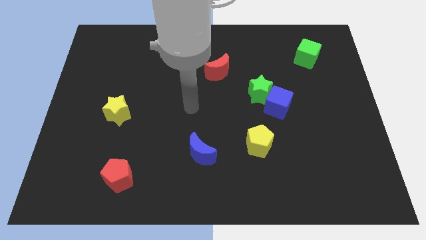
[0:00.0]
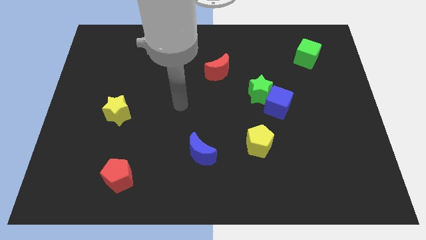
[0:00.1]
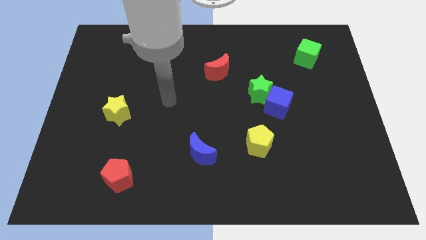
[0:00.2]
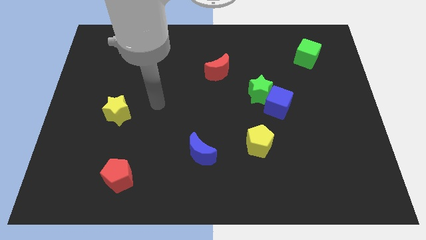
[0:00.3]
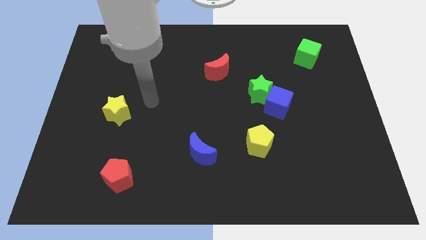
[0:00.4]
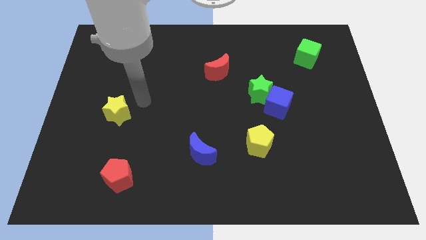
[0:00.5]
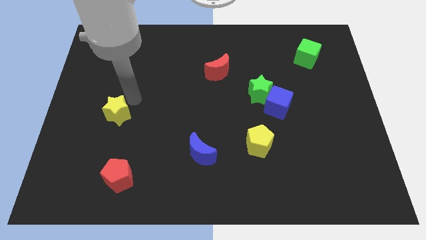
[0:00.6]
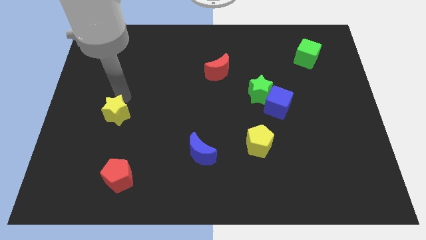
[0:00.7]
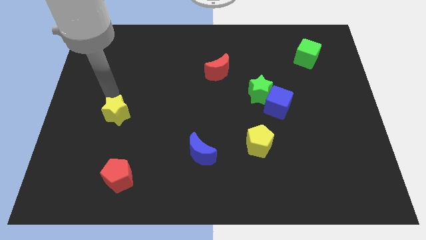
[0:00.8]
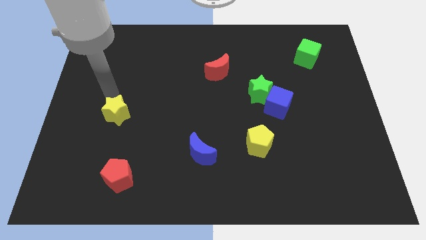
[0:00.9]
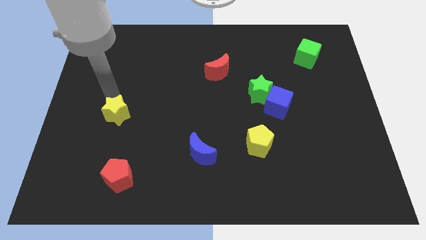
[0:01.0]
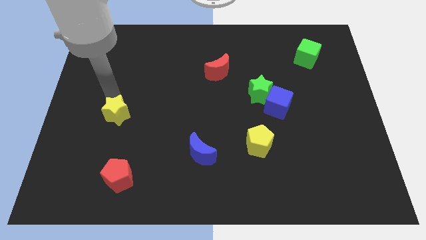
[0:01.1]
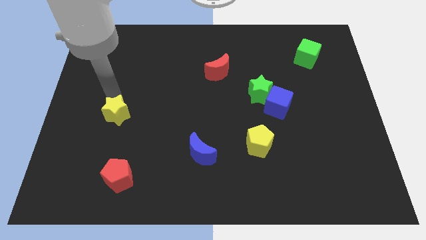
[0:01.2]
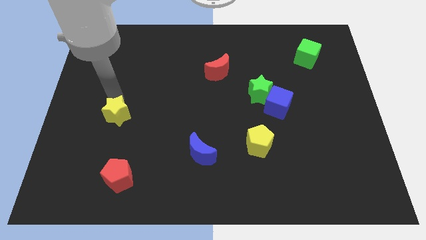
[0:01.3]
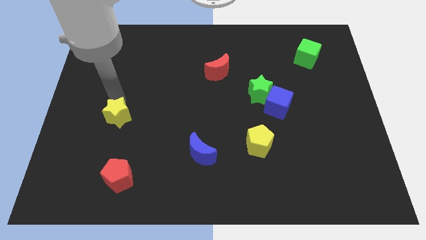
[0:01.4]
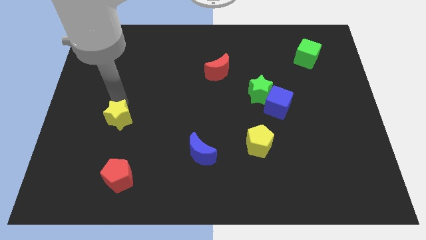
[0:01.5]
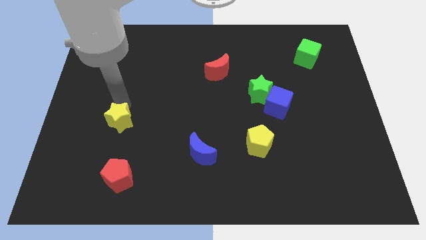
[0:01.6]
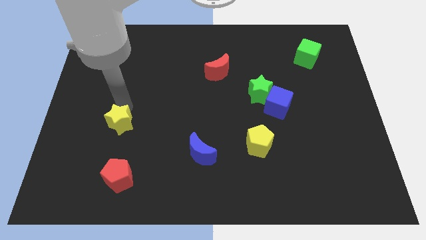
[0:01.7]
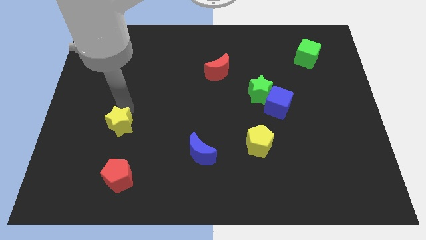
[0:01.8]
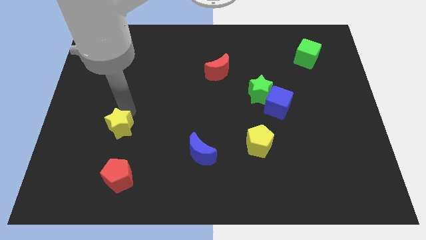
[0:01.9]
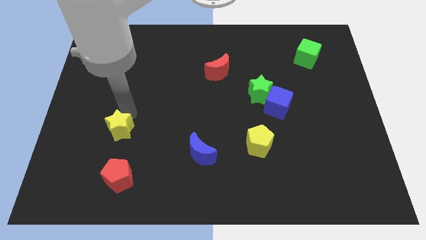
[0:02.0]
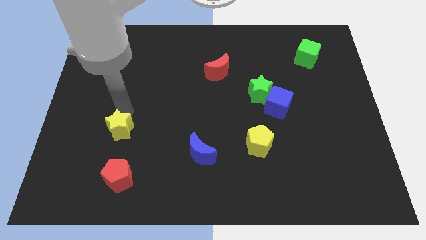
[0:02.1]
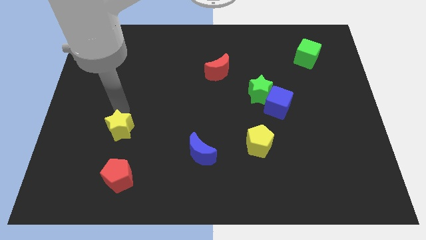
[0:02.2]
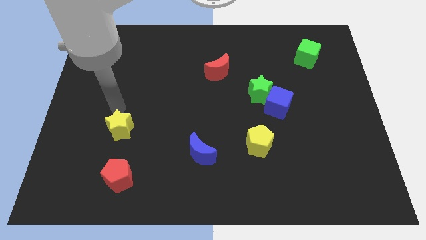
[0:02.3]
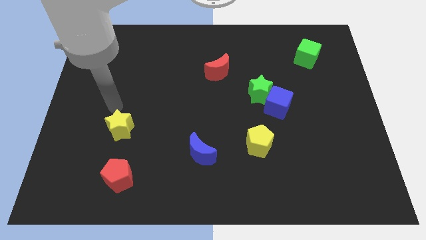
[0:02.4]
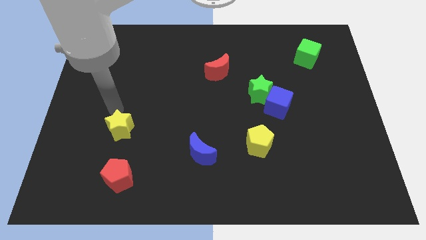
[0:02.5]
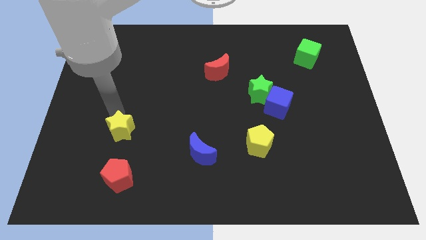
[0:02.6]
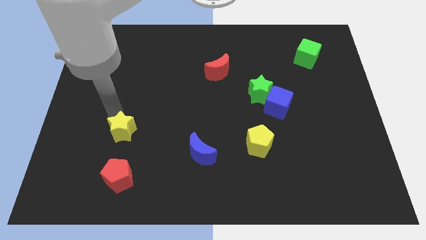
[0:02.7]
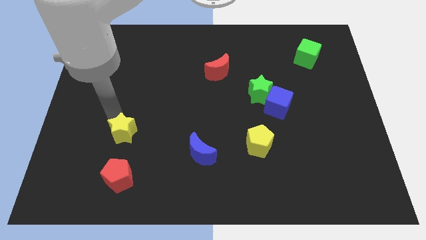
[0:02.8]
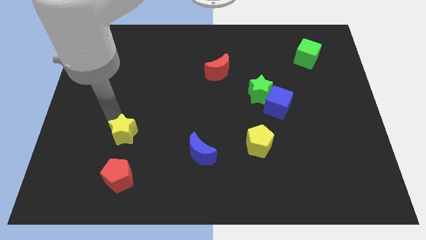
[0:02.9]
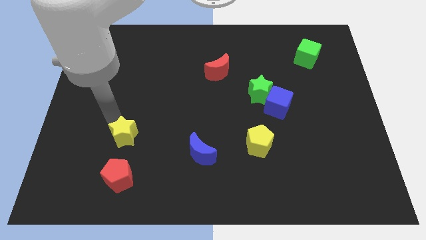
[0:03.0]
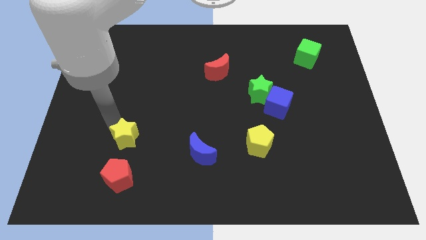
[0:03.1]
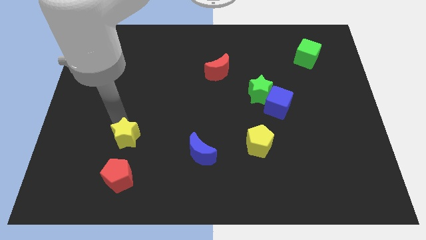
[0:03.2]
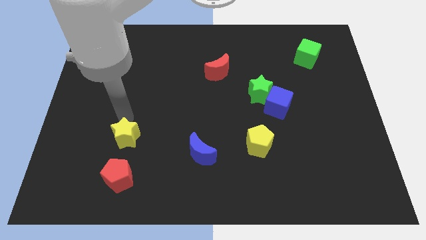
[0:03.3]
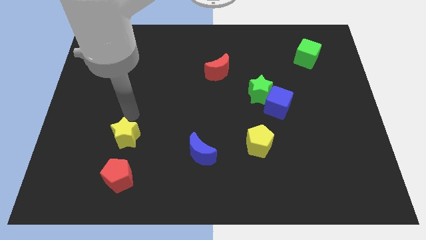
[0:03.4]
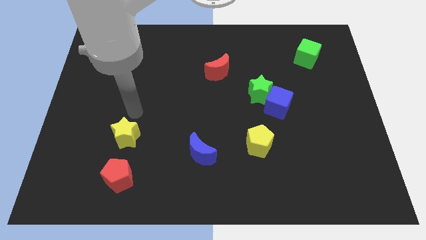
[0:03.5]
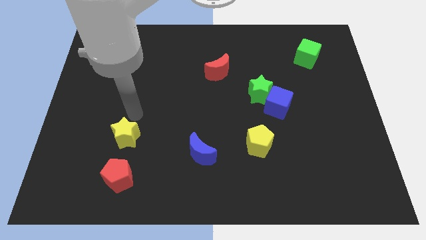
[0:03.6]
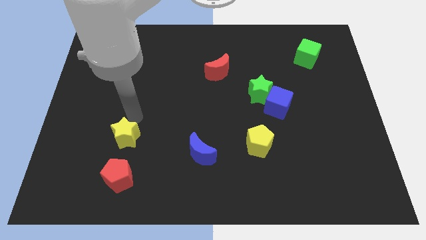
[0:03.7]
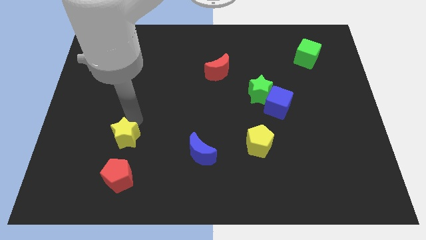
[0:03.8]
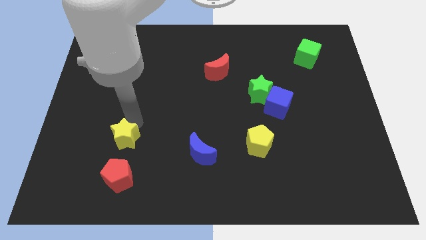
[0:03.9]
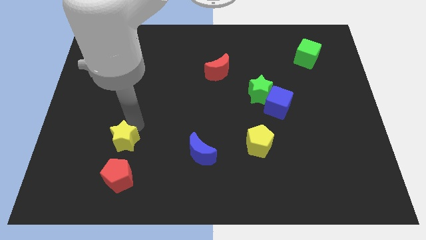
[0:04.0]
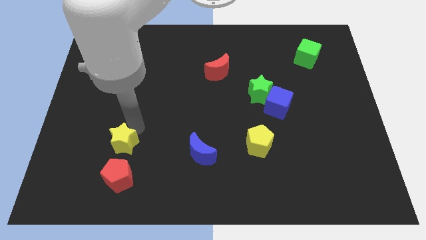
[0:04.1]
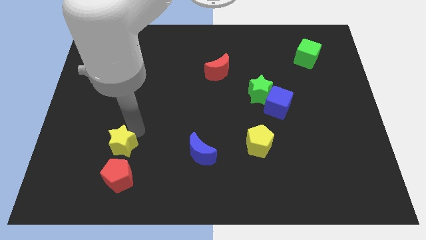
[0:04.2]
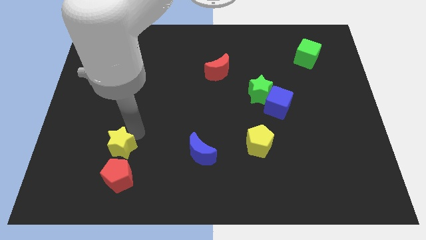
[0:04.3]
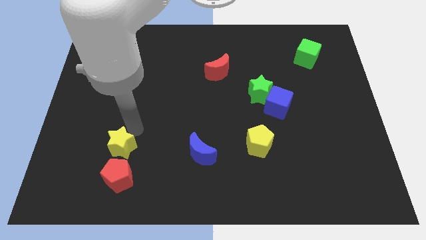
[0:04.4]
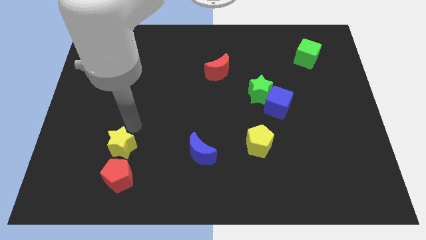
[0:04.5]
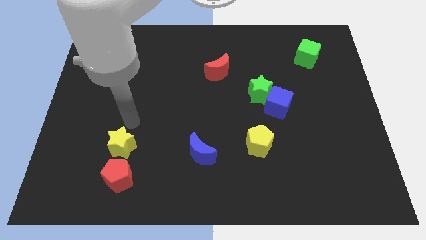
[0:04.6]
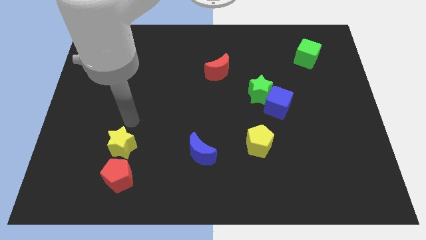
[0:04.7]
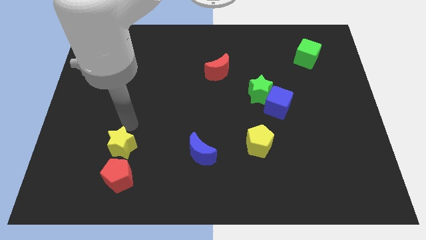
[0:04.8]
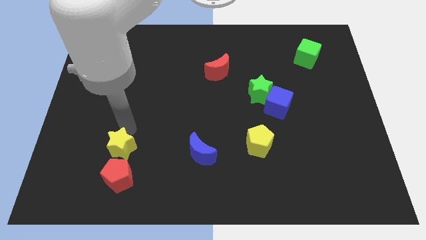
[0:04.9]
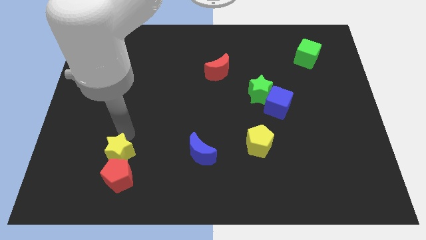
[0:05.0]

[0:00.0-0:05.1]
put the yellow star next to the red pentagon

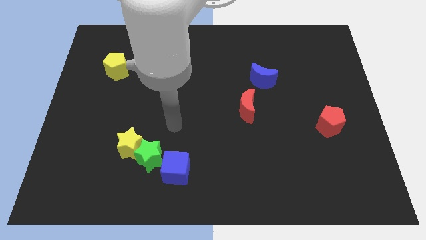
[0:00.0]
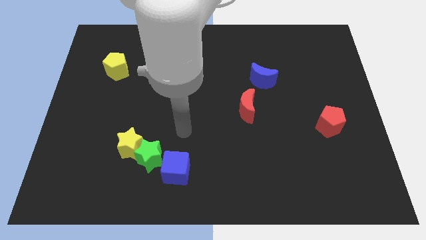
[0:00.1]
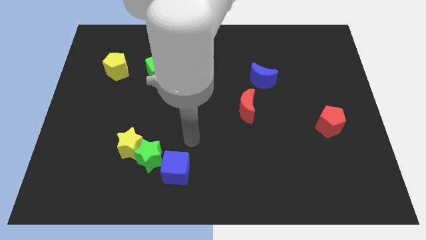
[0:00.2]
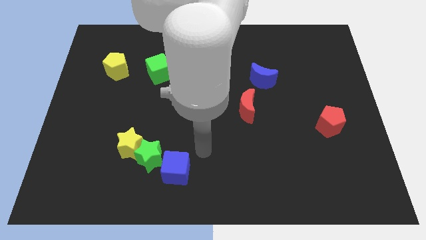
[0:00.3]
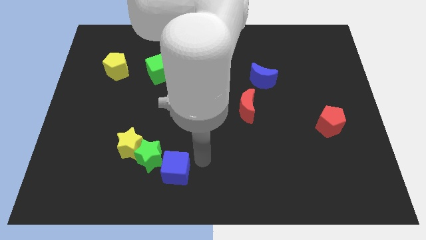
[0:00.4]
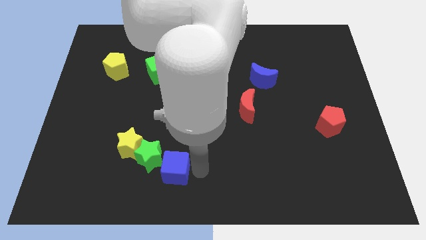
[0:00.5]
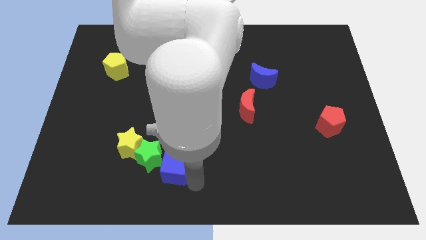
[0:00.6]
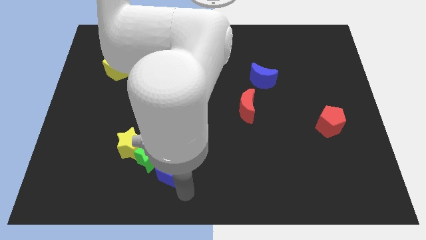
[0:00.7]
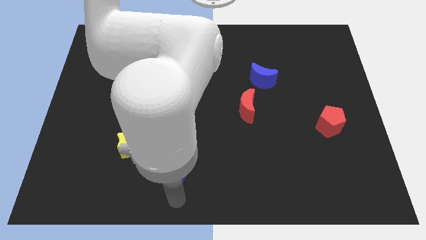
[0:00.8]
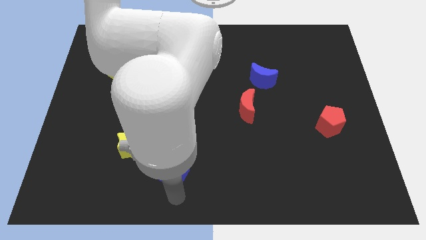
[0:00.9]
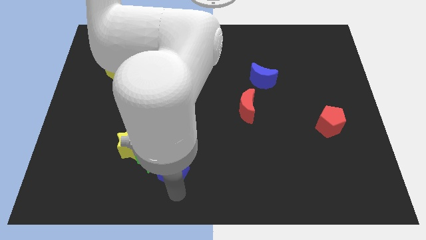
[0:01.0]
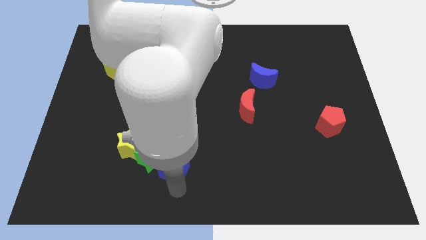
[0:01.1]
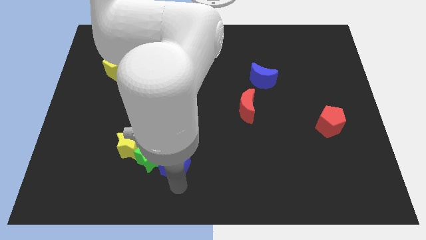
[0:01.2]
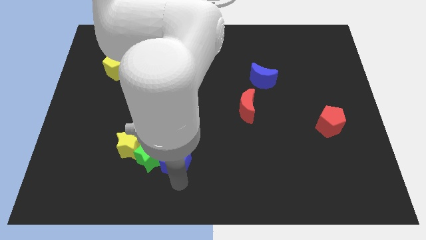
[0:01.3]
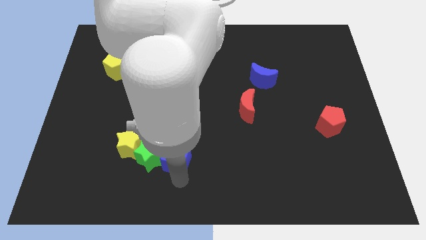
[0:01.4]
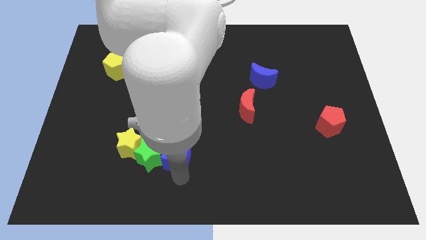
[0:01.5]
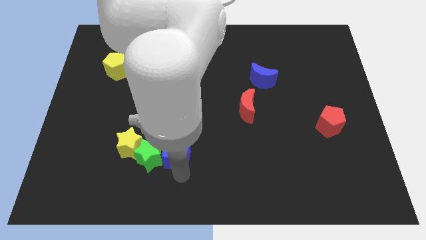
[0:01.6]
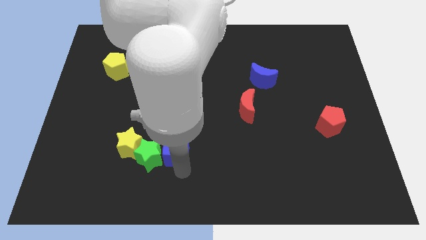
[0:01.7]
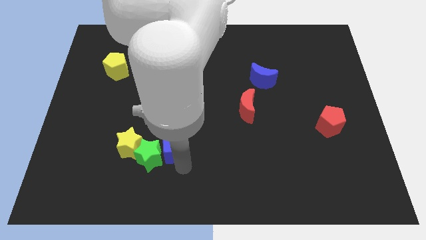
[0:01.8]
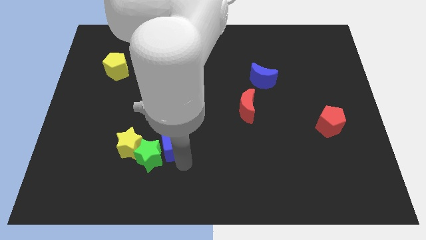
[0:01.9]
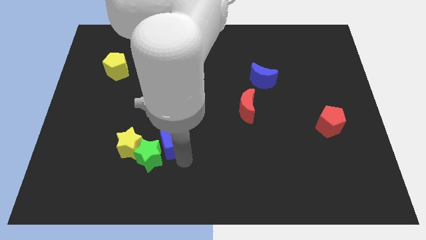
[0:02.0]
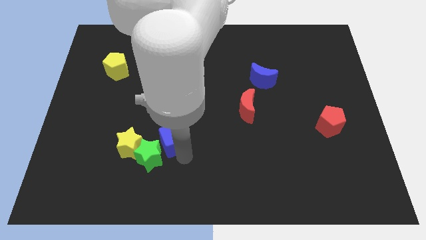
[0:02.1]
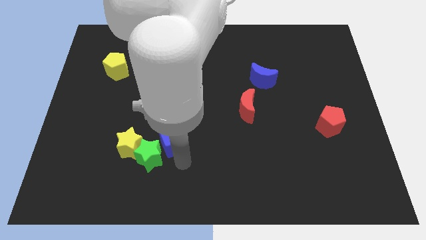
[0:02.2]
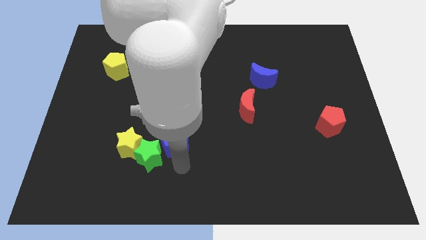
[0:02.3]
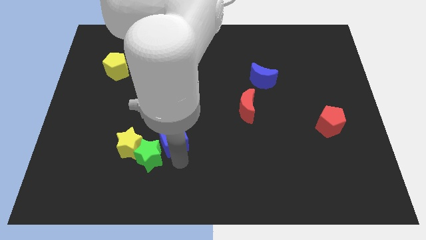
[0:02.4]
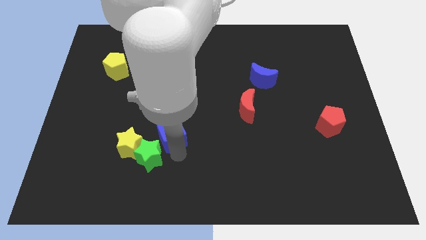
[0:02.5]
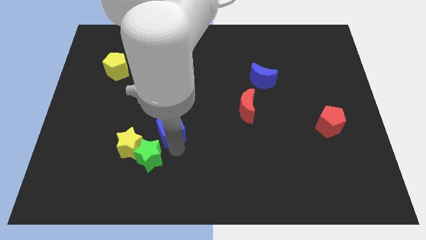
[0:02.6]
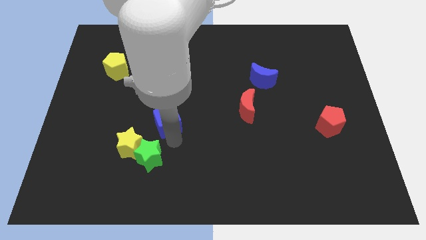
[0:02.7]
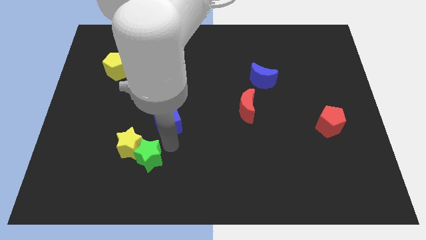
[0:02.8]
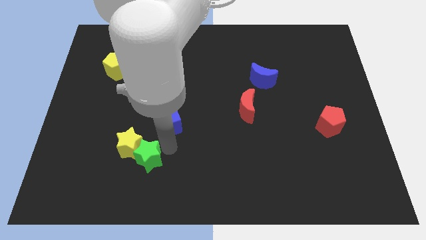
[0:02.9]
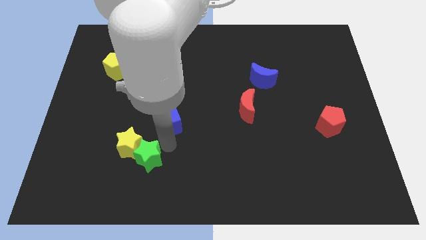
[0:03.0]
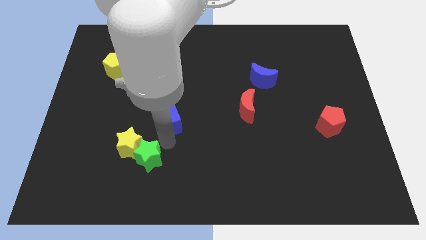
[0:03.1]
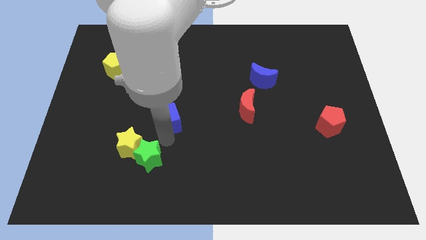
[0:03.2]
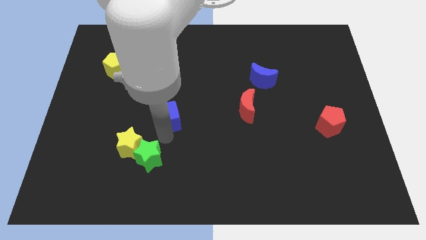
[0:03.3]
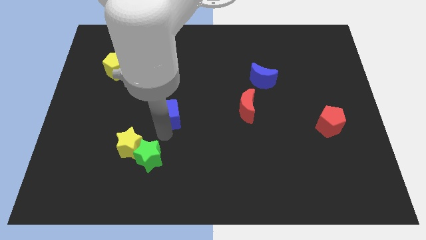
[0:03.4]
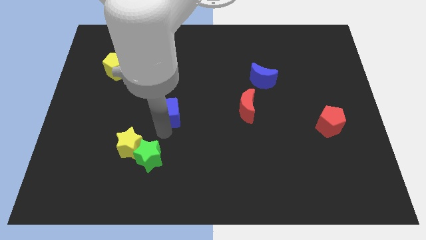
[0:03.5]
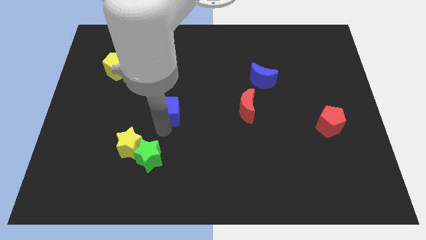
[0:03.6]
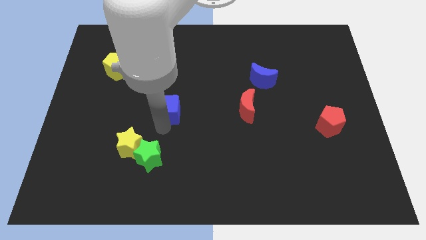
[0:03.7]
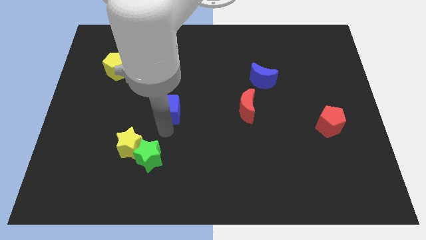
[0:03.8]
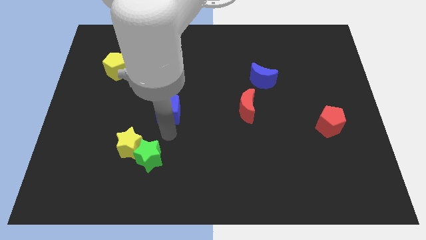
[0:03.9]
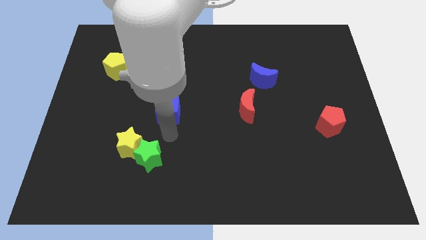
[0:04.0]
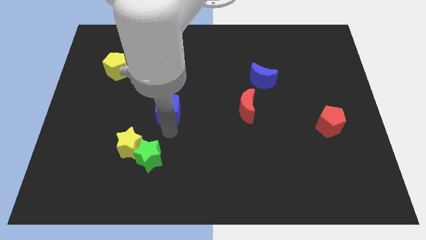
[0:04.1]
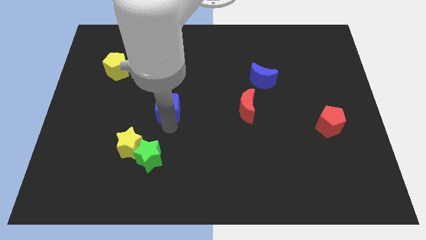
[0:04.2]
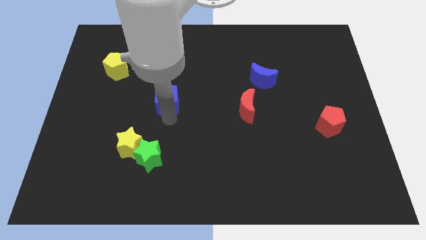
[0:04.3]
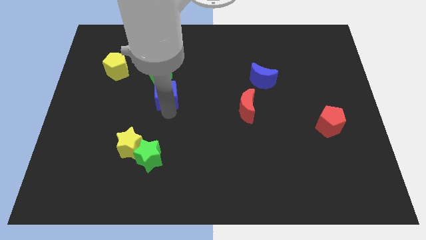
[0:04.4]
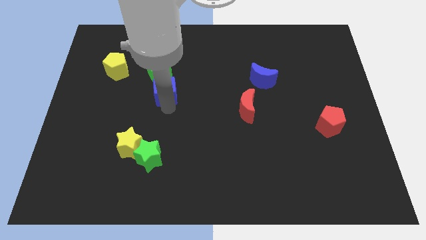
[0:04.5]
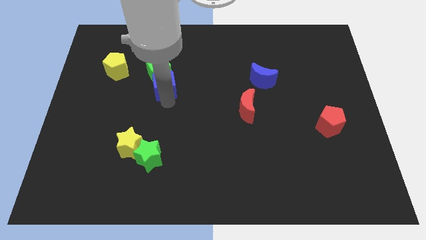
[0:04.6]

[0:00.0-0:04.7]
push the blue cube next to the green cube
